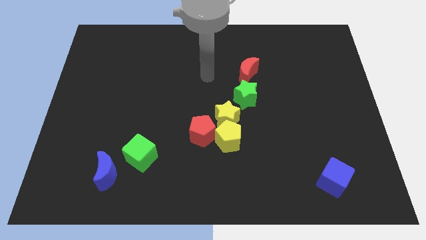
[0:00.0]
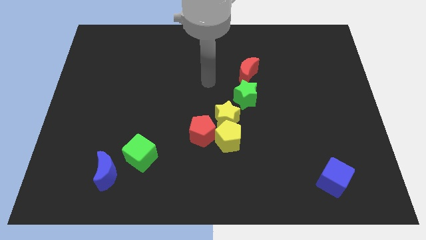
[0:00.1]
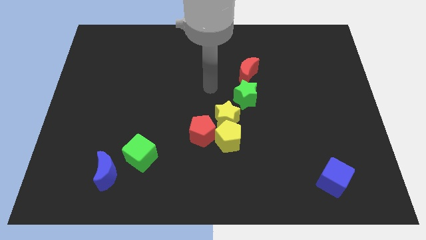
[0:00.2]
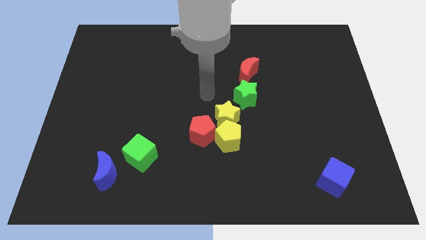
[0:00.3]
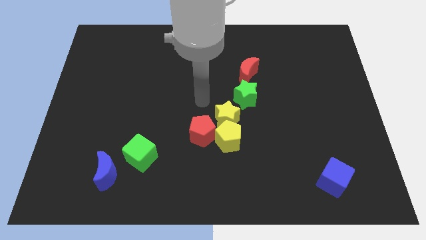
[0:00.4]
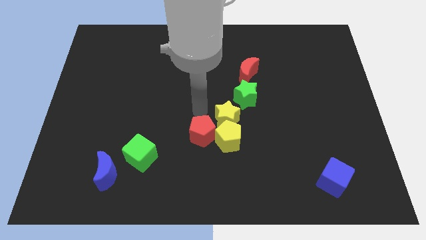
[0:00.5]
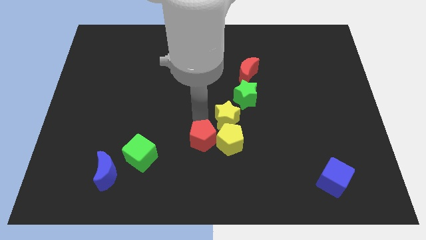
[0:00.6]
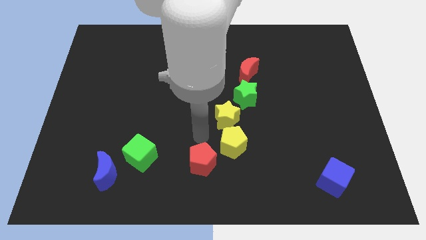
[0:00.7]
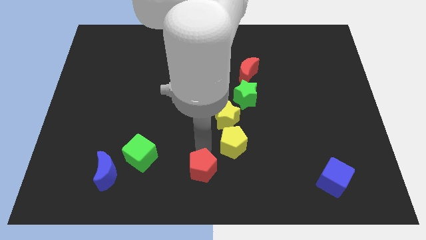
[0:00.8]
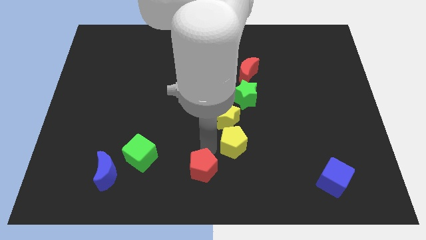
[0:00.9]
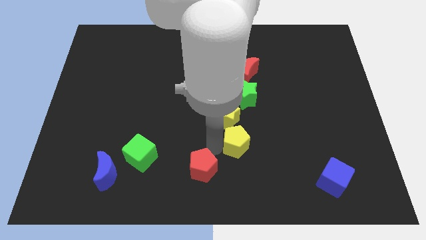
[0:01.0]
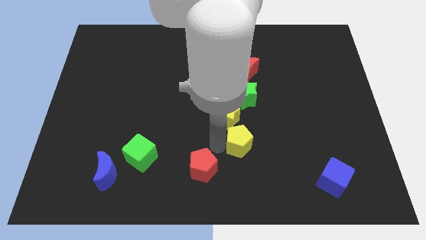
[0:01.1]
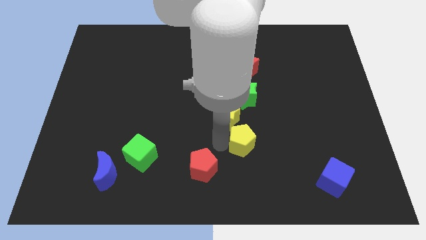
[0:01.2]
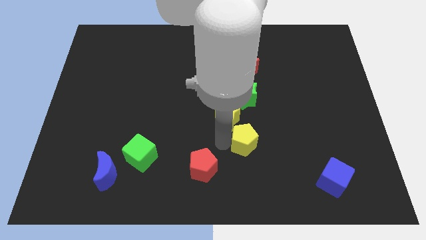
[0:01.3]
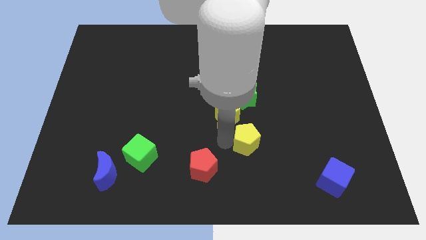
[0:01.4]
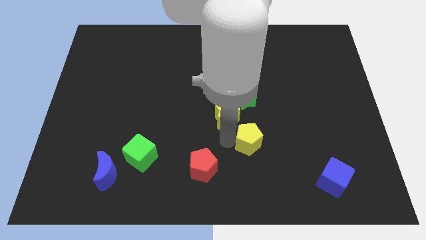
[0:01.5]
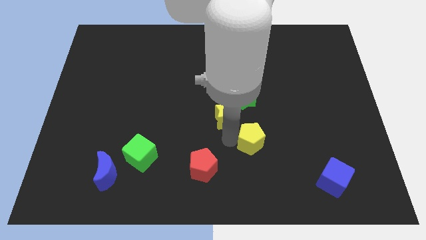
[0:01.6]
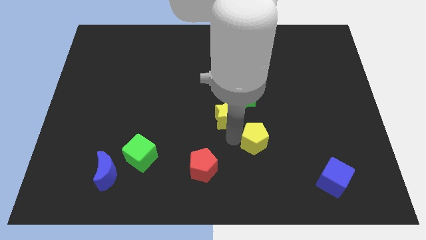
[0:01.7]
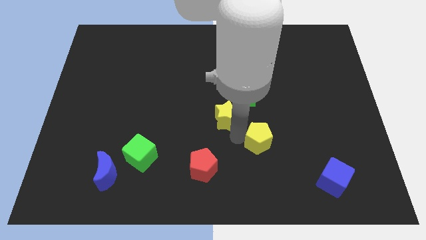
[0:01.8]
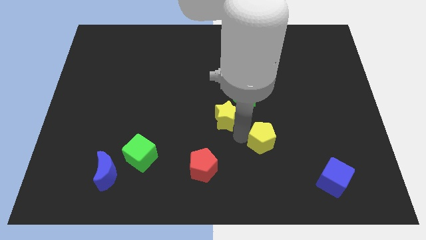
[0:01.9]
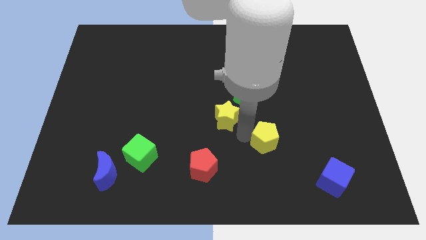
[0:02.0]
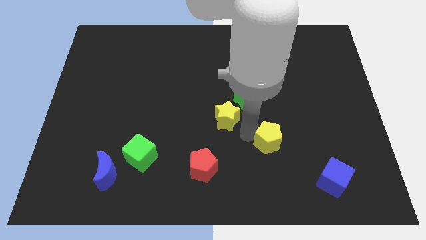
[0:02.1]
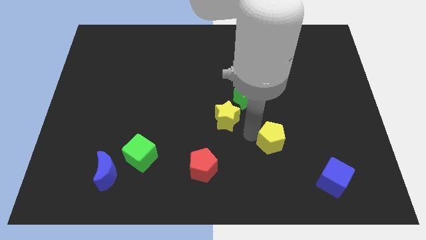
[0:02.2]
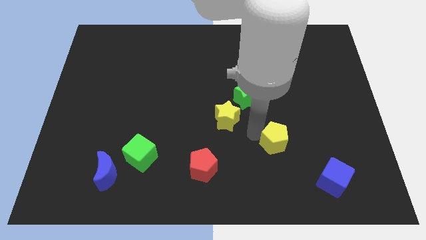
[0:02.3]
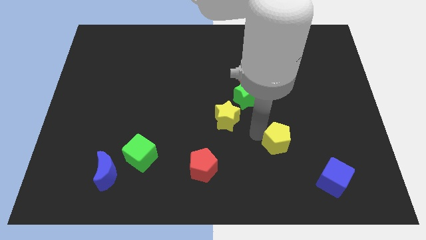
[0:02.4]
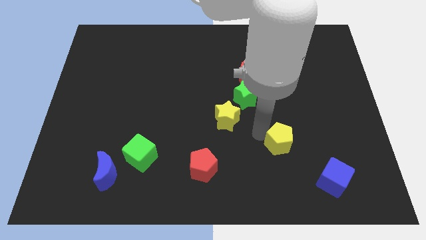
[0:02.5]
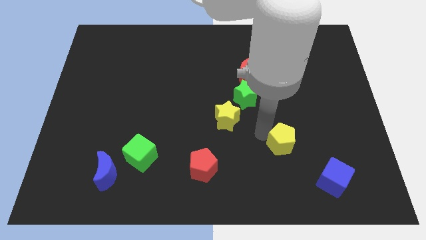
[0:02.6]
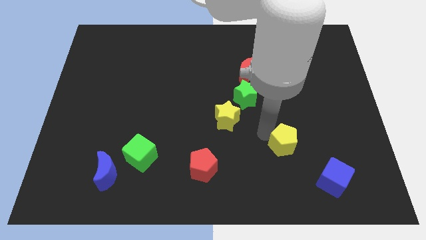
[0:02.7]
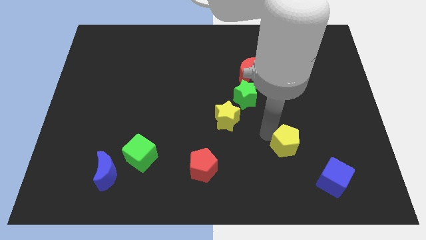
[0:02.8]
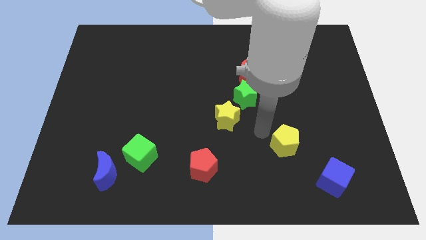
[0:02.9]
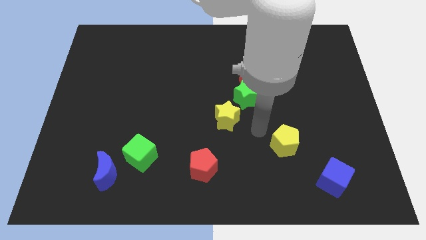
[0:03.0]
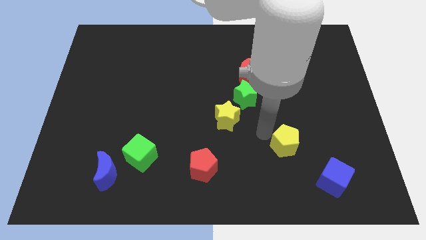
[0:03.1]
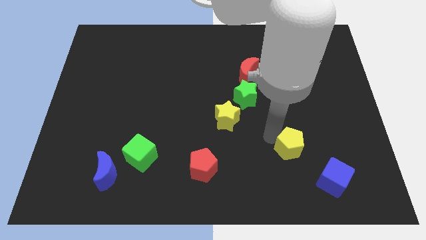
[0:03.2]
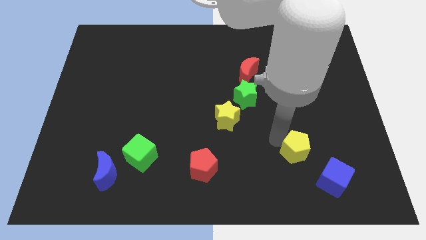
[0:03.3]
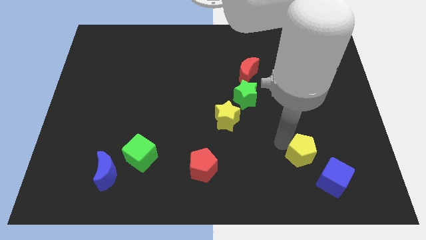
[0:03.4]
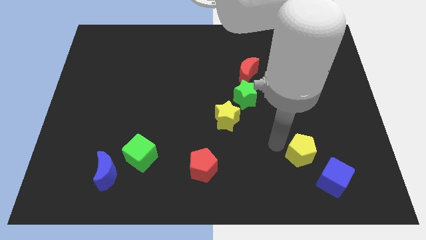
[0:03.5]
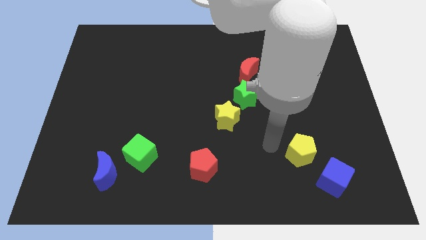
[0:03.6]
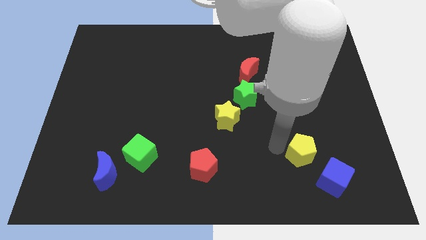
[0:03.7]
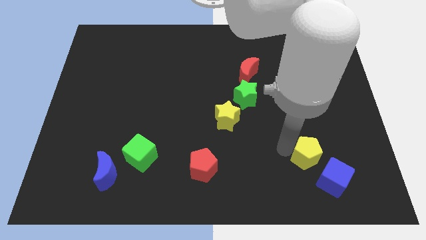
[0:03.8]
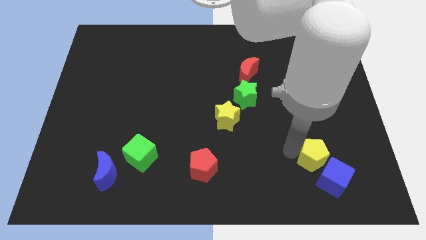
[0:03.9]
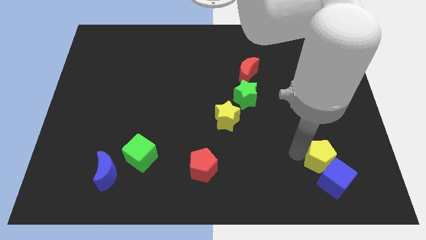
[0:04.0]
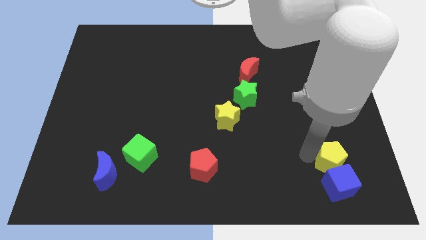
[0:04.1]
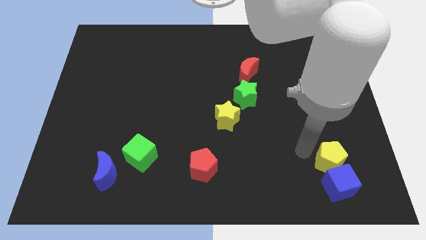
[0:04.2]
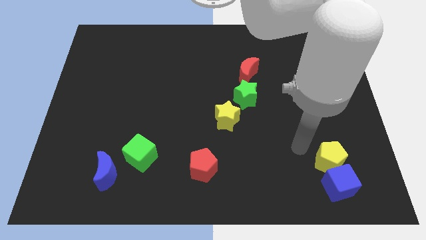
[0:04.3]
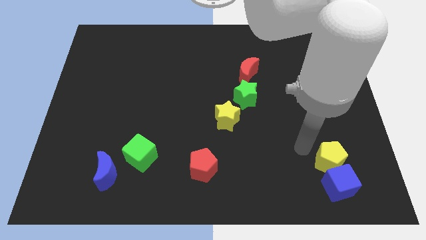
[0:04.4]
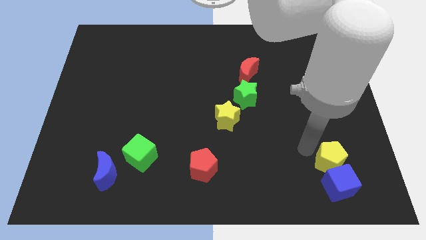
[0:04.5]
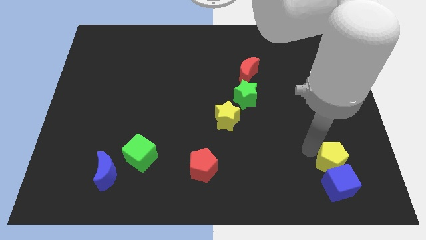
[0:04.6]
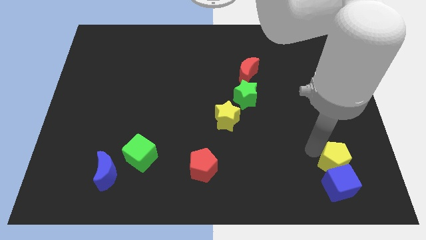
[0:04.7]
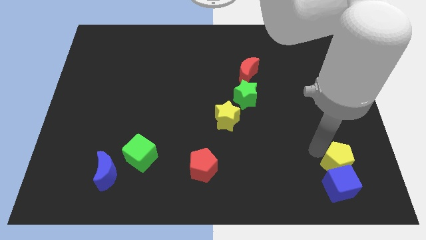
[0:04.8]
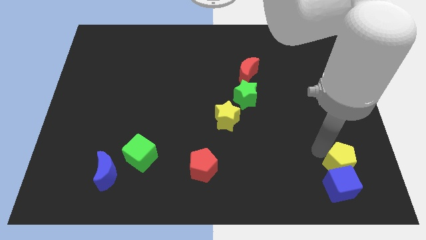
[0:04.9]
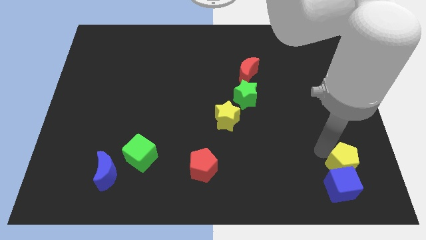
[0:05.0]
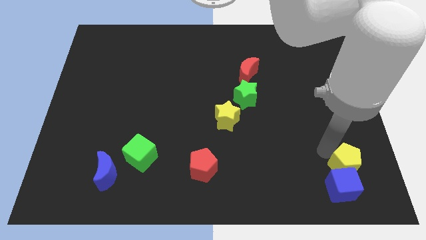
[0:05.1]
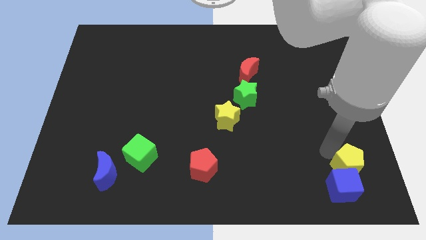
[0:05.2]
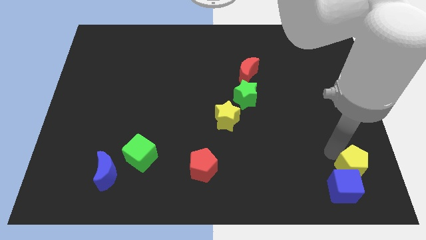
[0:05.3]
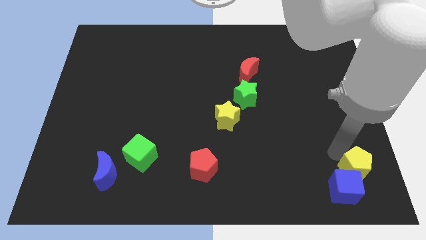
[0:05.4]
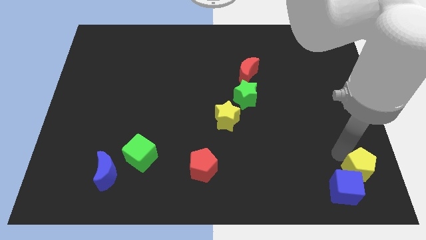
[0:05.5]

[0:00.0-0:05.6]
move the yellow pentagon to the bottom right

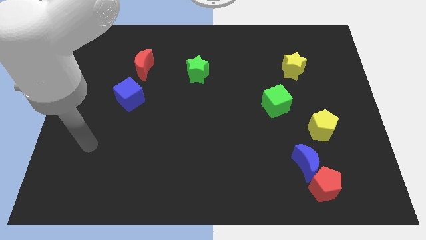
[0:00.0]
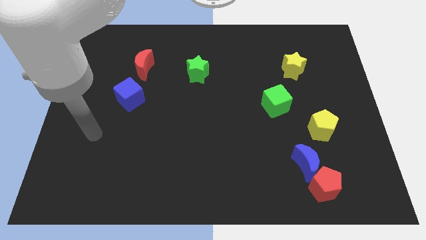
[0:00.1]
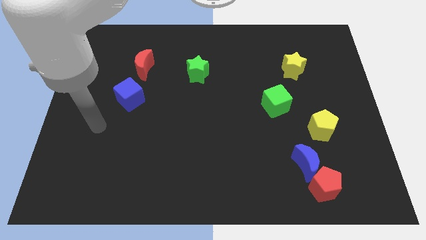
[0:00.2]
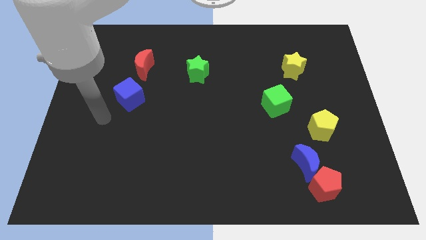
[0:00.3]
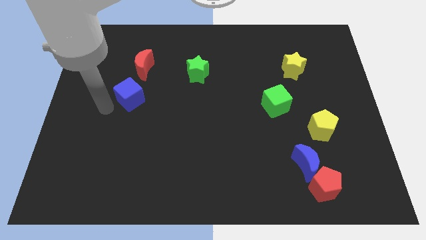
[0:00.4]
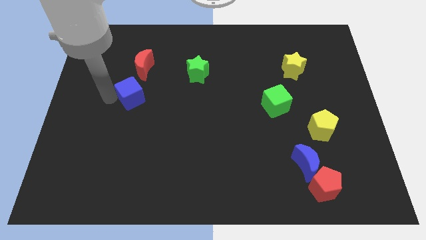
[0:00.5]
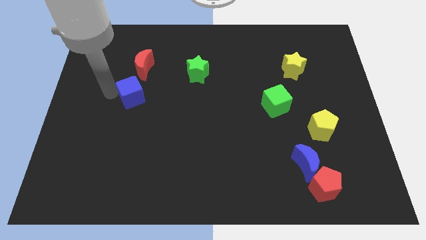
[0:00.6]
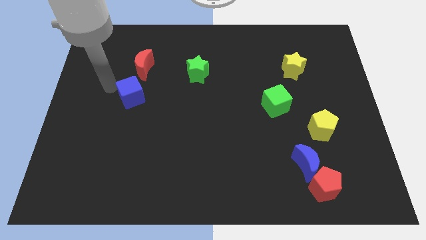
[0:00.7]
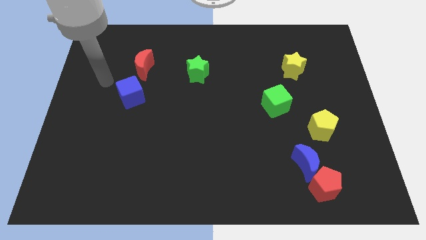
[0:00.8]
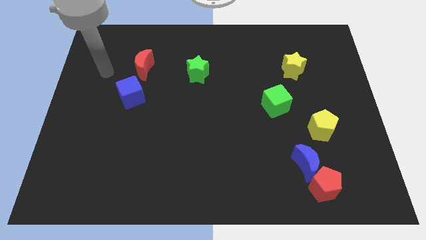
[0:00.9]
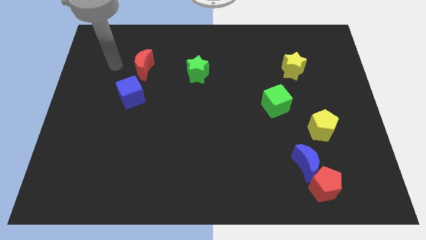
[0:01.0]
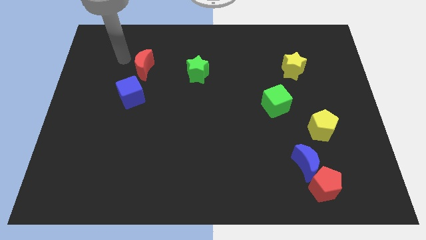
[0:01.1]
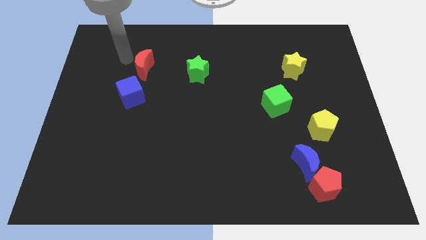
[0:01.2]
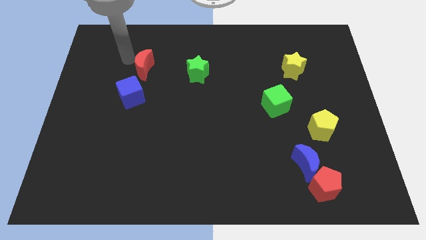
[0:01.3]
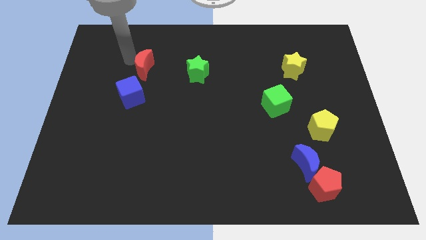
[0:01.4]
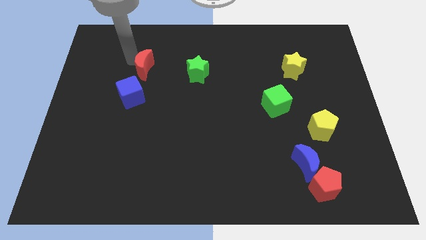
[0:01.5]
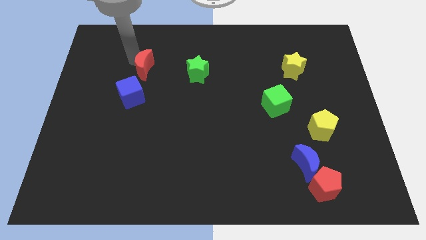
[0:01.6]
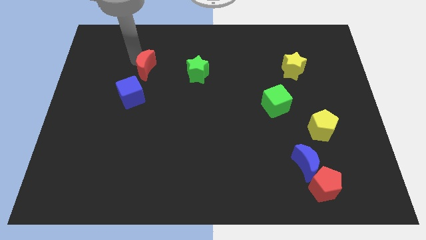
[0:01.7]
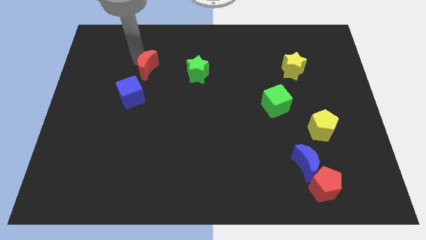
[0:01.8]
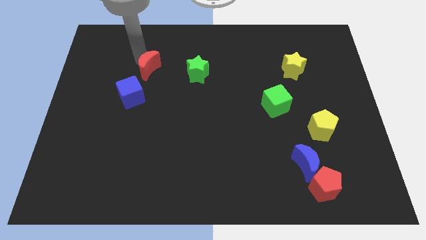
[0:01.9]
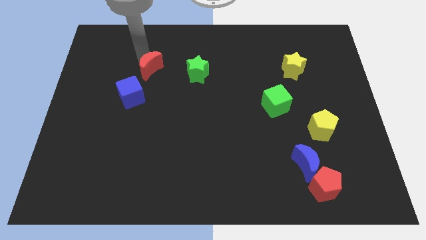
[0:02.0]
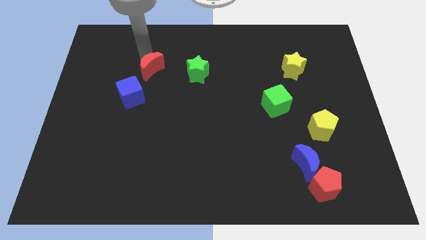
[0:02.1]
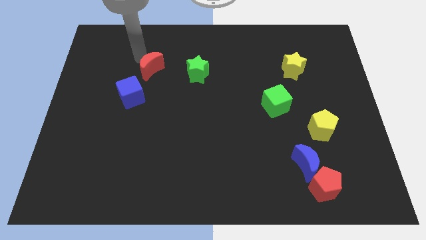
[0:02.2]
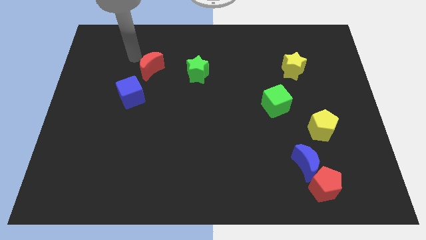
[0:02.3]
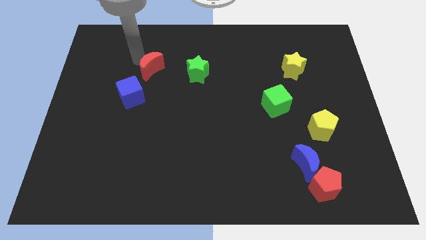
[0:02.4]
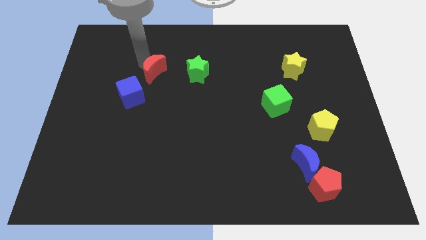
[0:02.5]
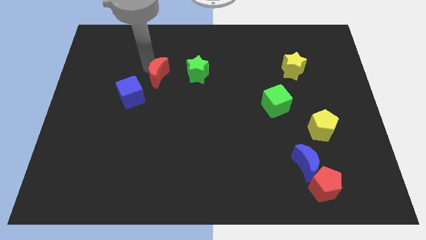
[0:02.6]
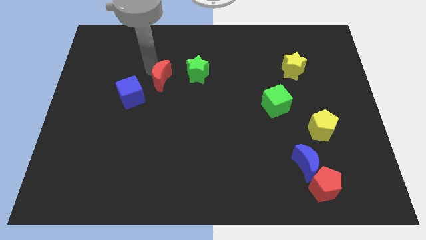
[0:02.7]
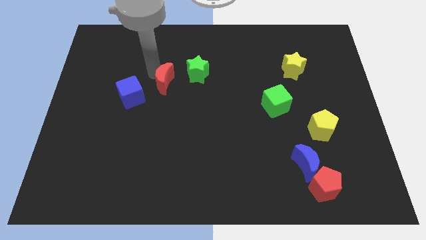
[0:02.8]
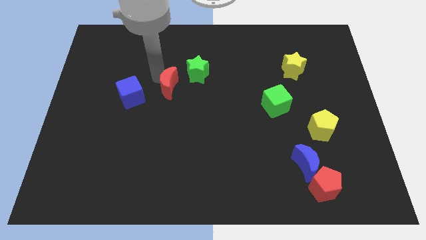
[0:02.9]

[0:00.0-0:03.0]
push the red moon to the middle of the board
